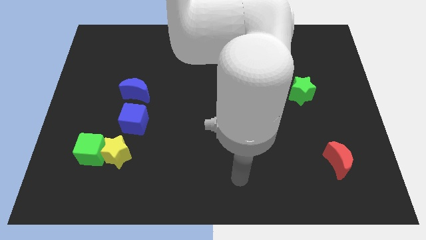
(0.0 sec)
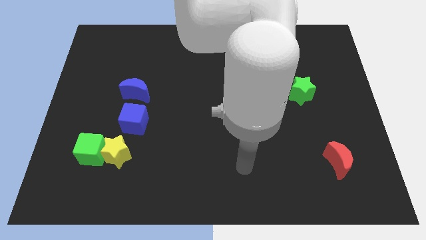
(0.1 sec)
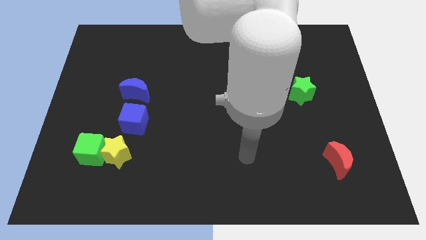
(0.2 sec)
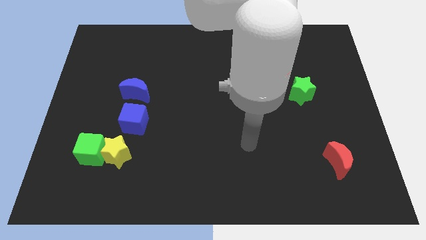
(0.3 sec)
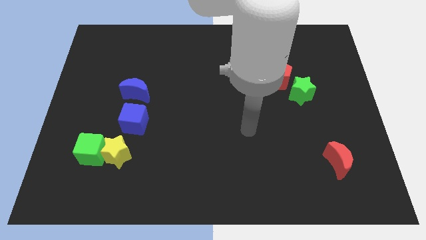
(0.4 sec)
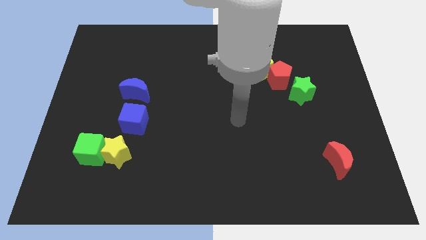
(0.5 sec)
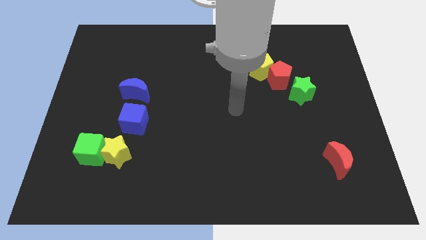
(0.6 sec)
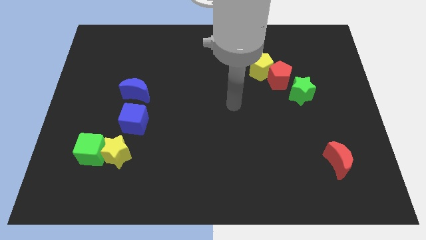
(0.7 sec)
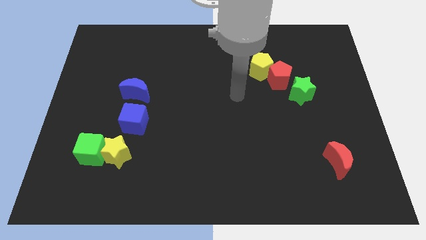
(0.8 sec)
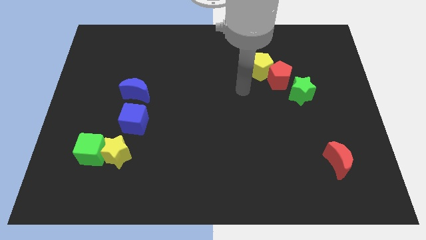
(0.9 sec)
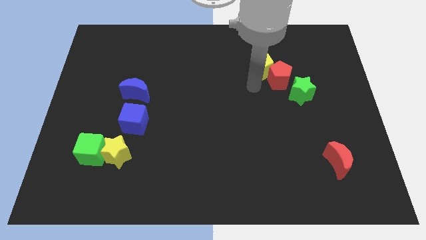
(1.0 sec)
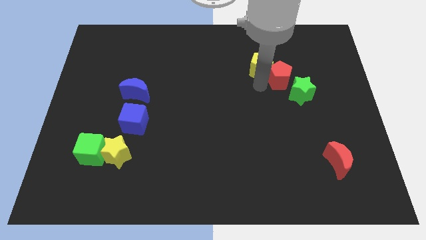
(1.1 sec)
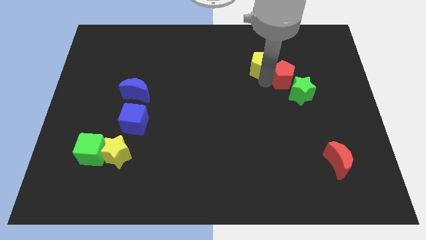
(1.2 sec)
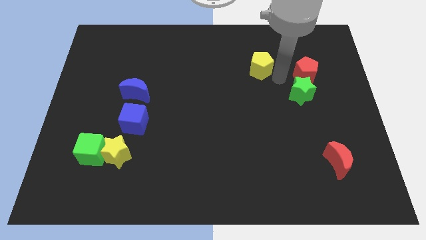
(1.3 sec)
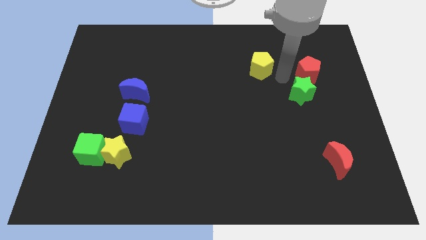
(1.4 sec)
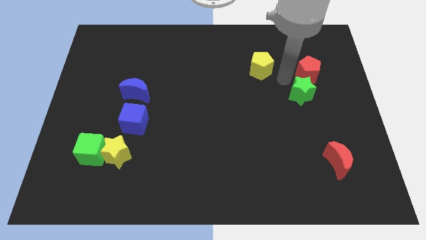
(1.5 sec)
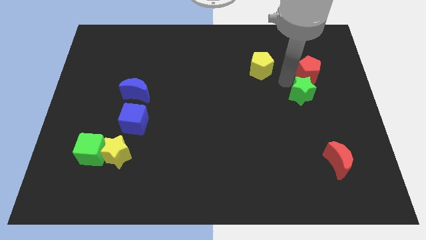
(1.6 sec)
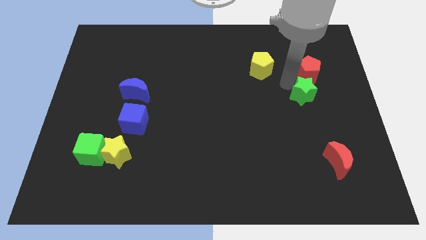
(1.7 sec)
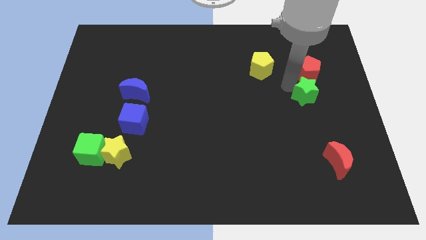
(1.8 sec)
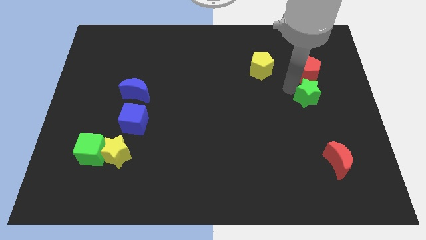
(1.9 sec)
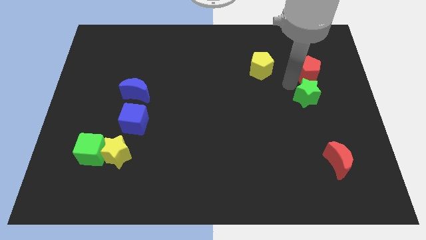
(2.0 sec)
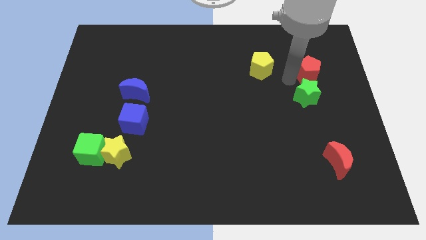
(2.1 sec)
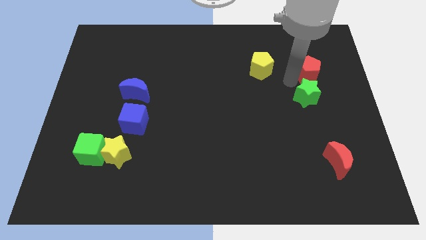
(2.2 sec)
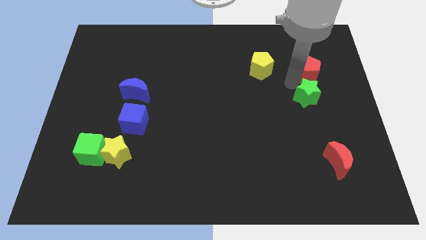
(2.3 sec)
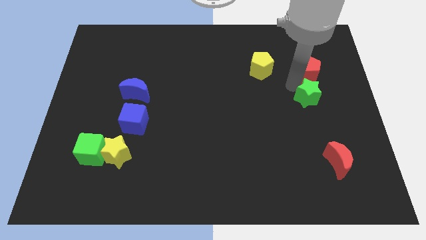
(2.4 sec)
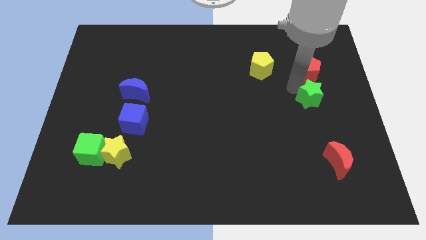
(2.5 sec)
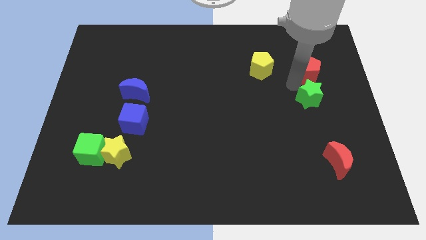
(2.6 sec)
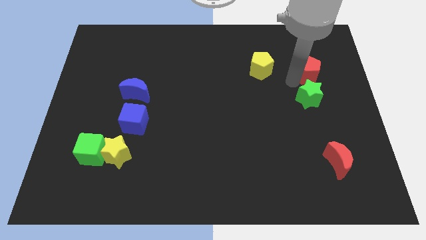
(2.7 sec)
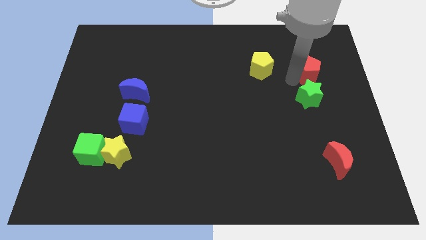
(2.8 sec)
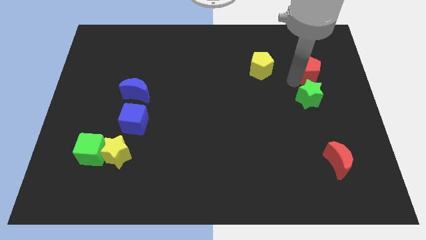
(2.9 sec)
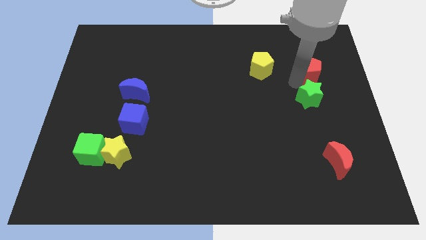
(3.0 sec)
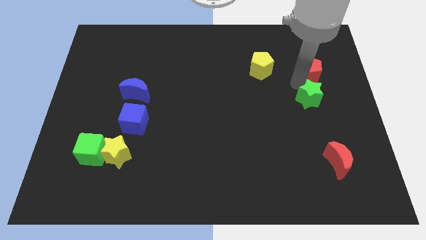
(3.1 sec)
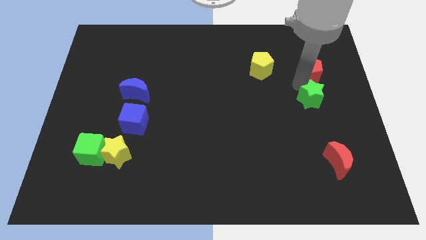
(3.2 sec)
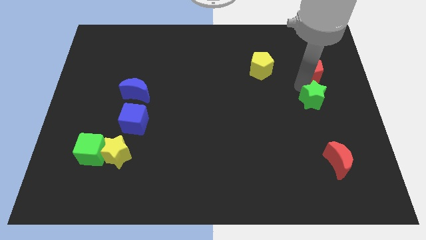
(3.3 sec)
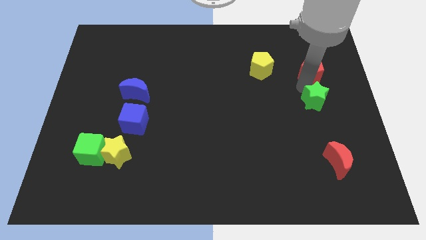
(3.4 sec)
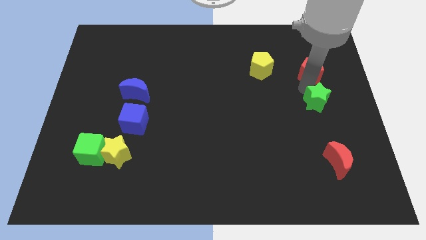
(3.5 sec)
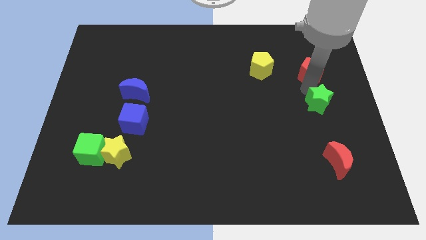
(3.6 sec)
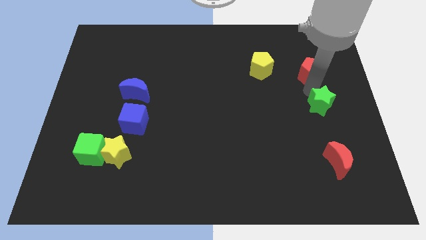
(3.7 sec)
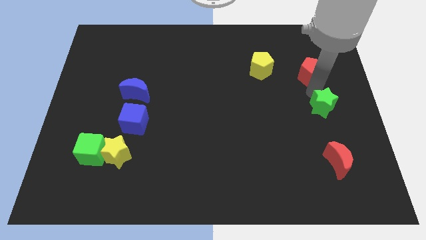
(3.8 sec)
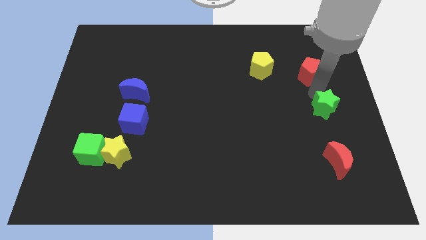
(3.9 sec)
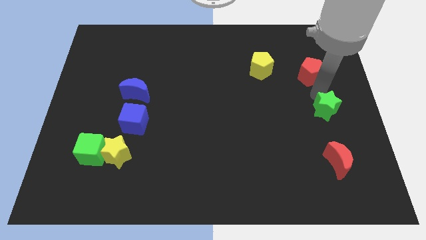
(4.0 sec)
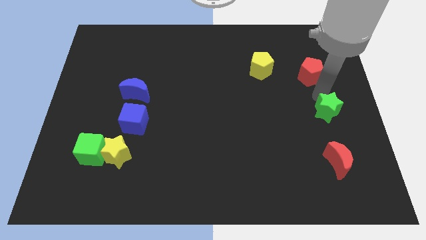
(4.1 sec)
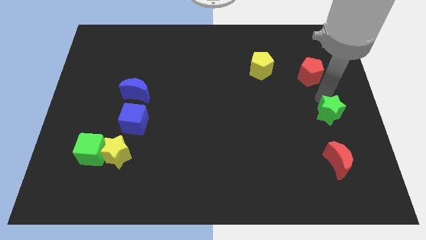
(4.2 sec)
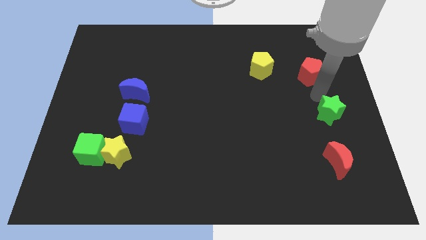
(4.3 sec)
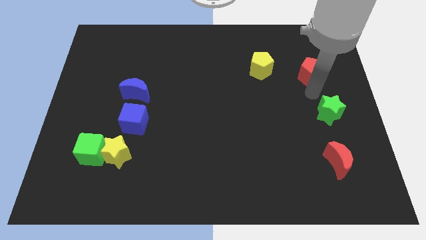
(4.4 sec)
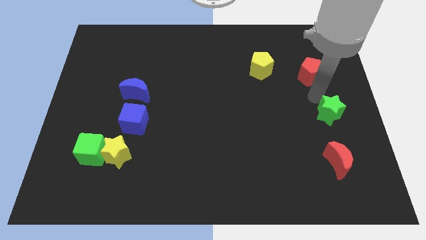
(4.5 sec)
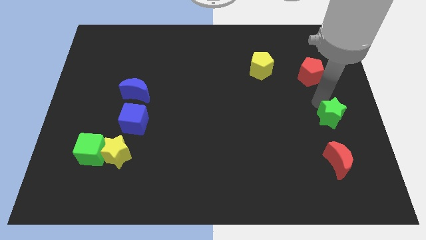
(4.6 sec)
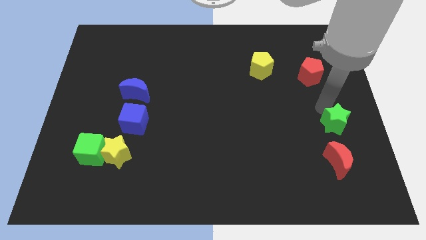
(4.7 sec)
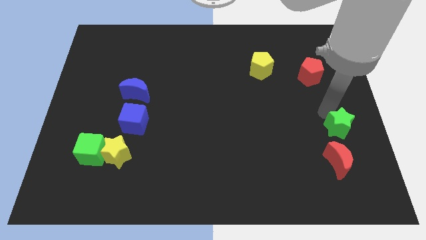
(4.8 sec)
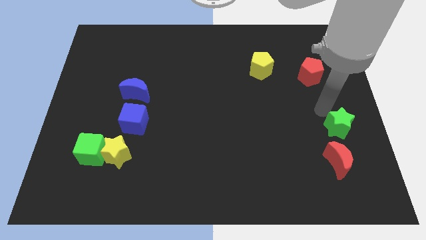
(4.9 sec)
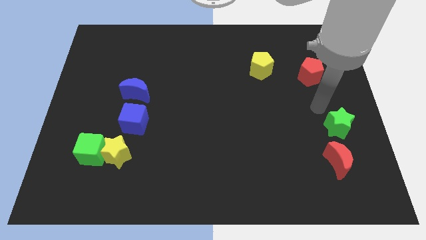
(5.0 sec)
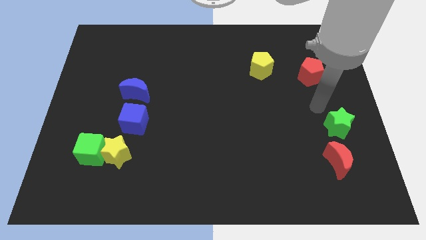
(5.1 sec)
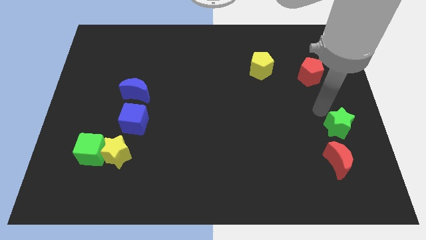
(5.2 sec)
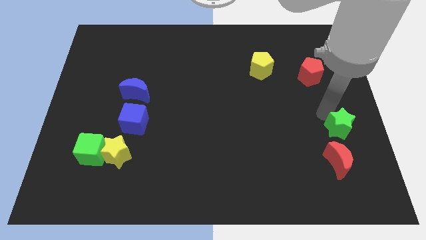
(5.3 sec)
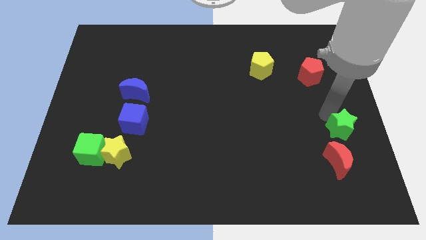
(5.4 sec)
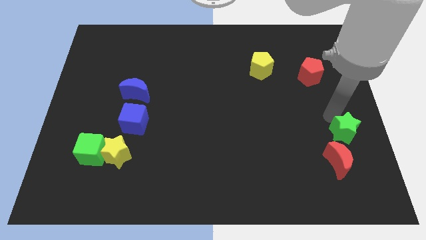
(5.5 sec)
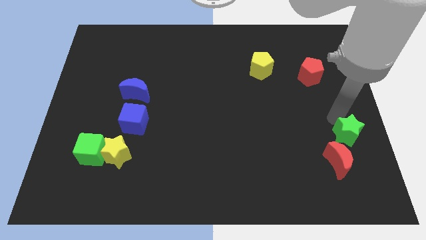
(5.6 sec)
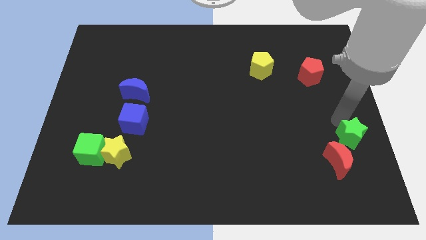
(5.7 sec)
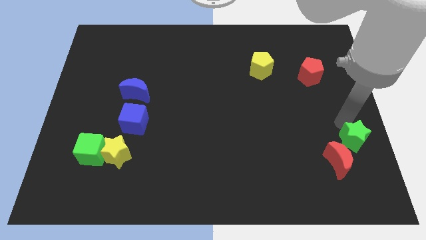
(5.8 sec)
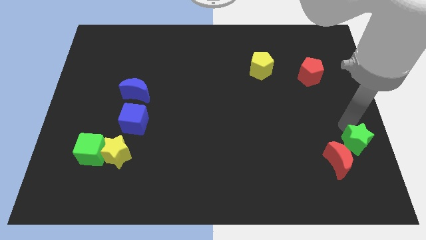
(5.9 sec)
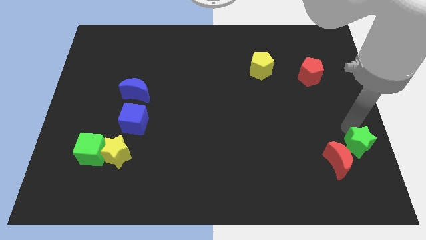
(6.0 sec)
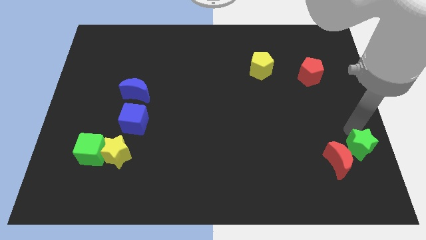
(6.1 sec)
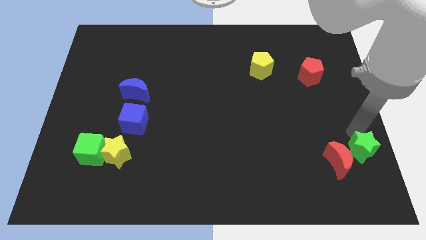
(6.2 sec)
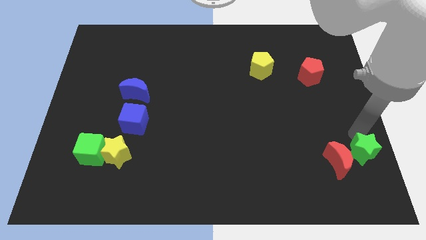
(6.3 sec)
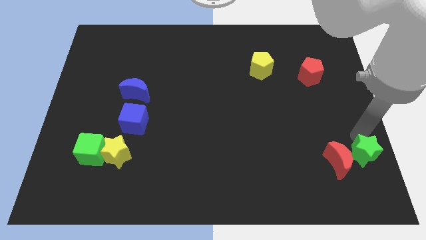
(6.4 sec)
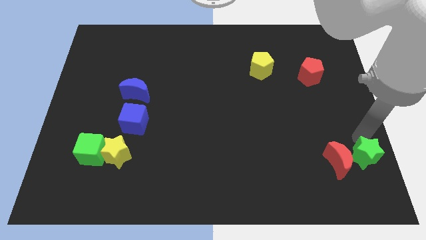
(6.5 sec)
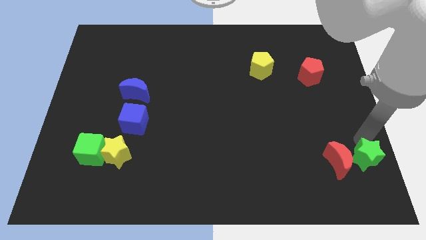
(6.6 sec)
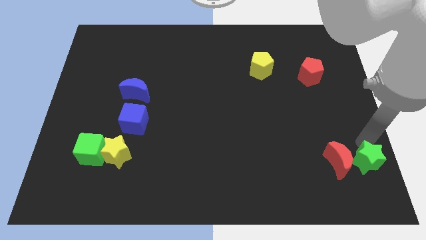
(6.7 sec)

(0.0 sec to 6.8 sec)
put the green star to the bottom right corner
